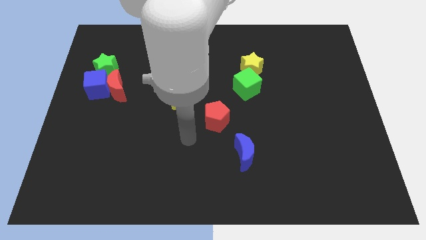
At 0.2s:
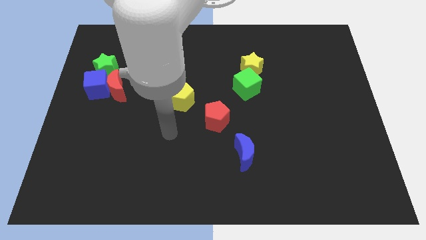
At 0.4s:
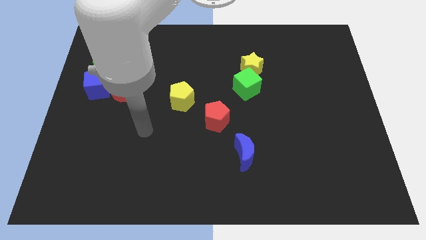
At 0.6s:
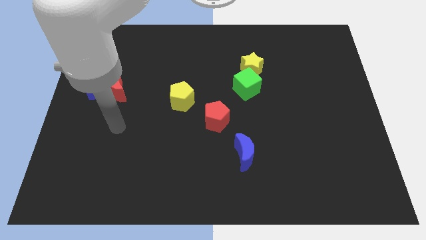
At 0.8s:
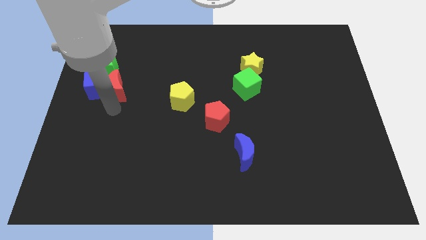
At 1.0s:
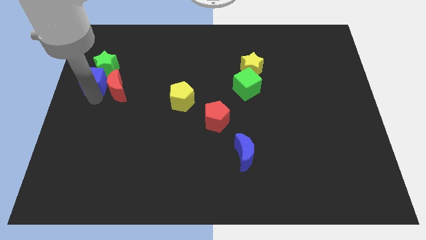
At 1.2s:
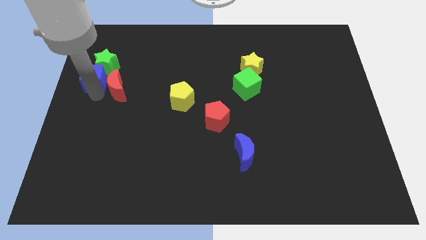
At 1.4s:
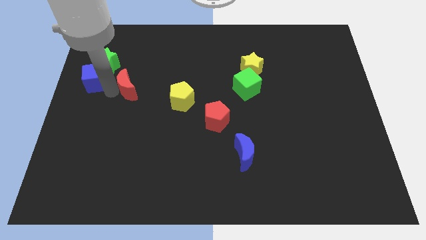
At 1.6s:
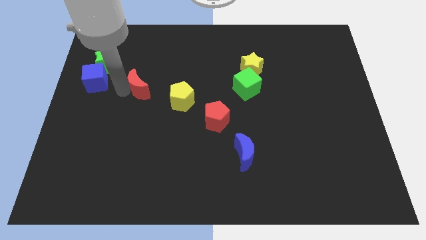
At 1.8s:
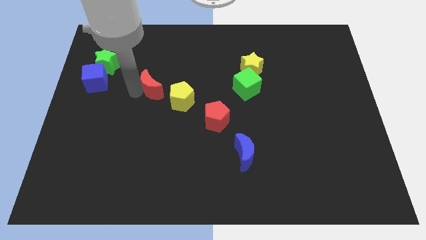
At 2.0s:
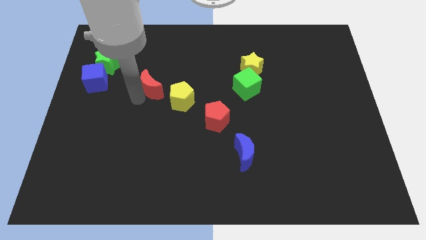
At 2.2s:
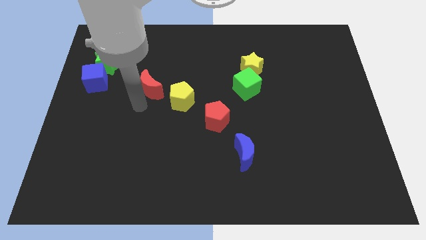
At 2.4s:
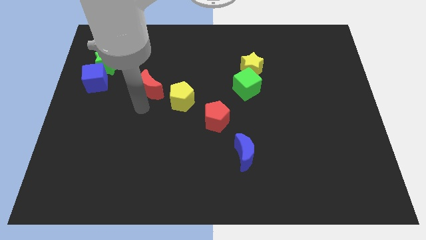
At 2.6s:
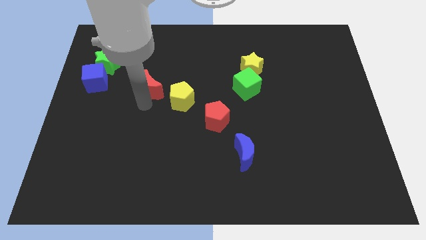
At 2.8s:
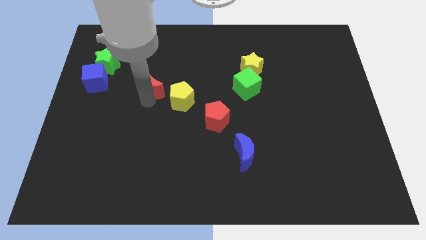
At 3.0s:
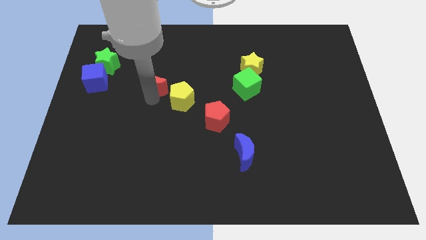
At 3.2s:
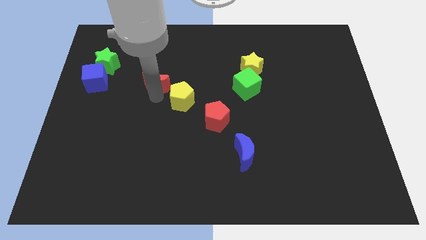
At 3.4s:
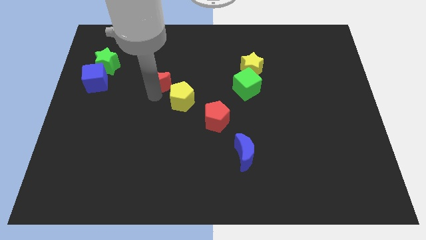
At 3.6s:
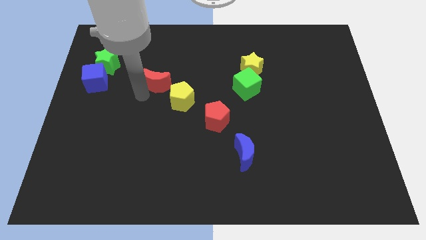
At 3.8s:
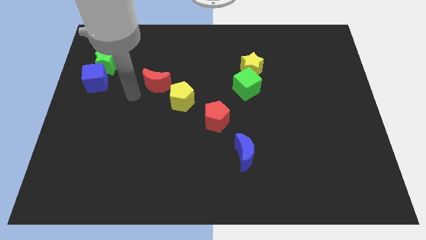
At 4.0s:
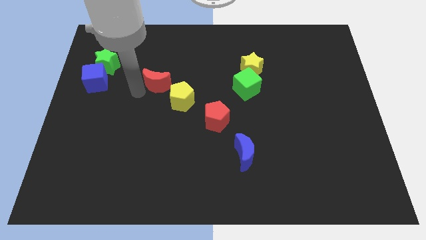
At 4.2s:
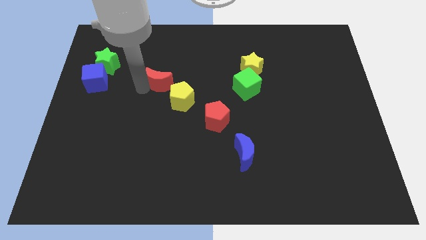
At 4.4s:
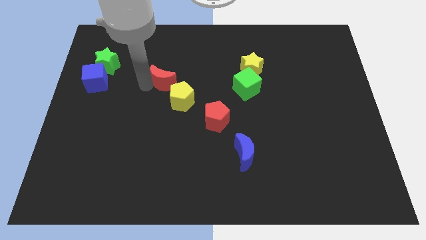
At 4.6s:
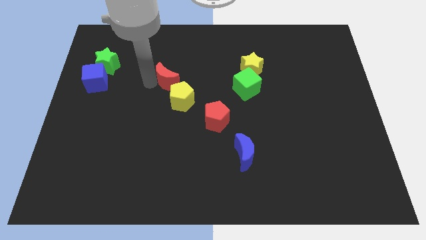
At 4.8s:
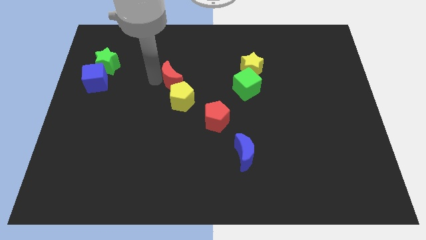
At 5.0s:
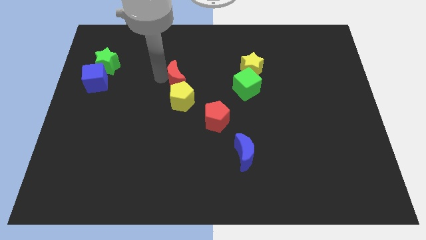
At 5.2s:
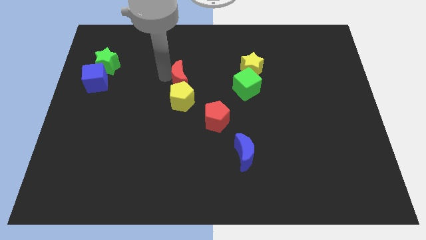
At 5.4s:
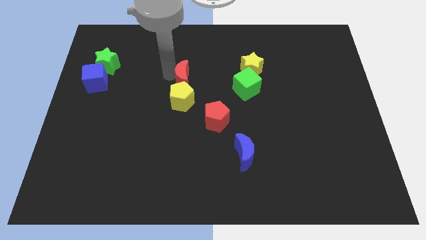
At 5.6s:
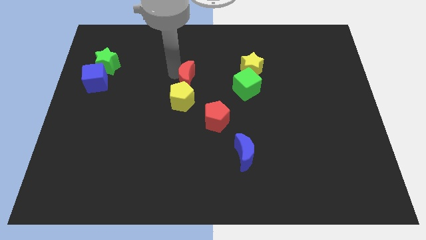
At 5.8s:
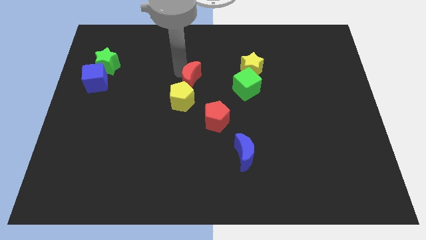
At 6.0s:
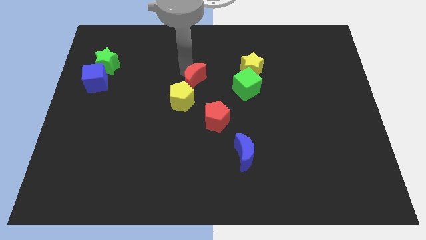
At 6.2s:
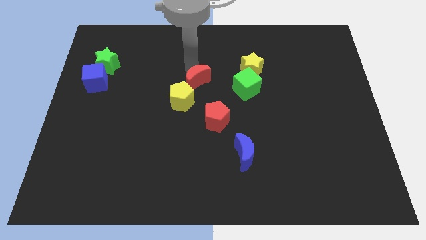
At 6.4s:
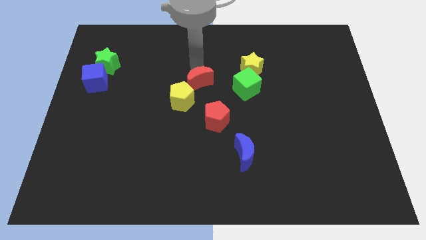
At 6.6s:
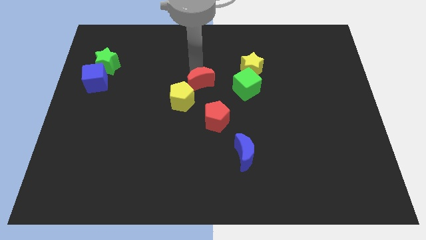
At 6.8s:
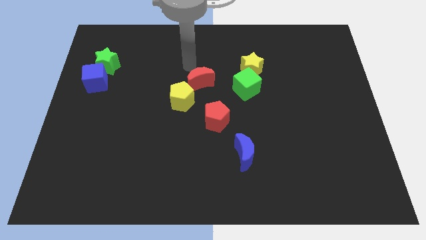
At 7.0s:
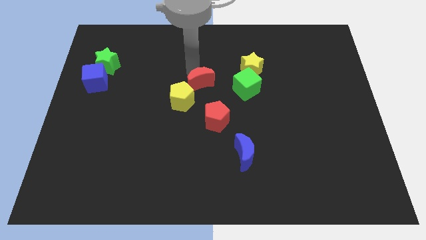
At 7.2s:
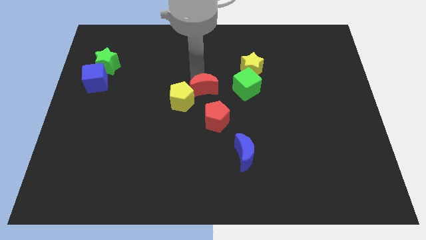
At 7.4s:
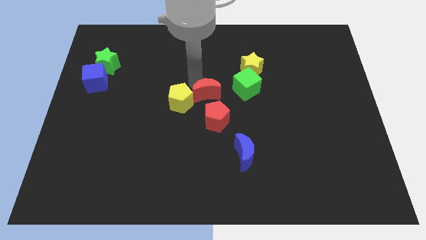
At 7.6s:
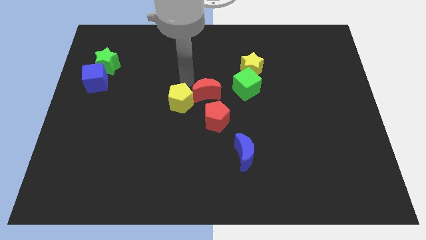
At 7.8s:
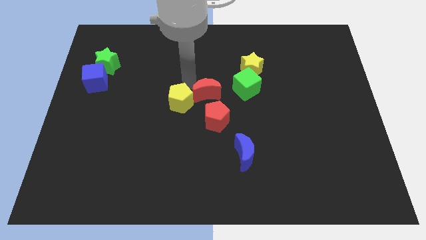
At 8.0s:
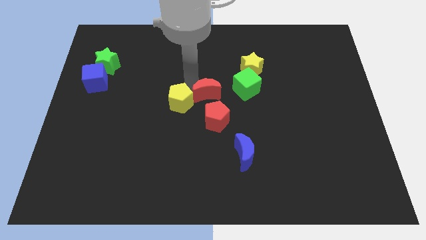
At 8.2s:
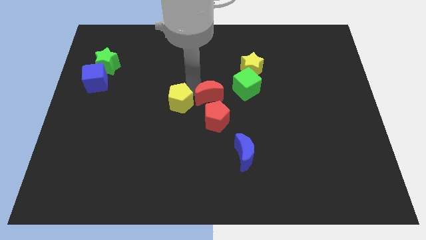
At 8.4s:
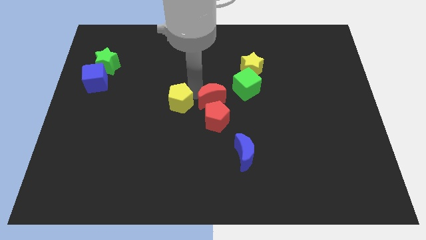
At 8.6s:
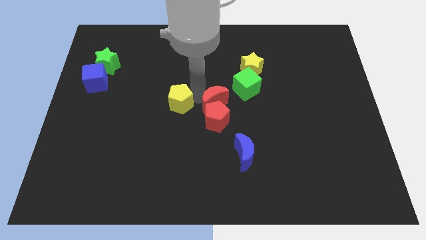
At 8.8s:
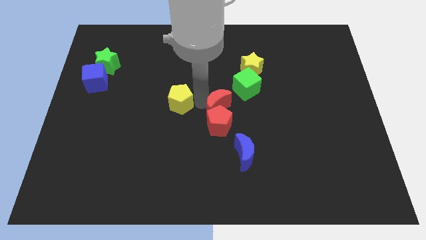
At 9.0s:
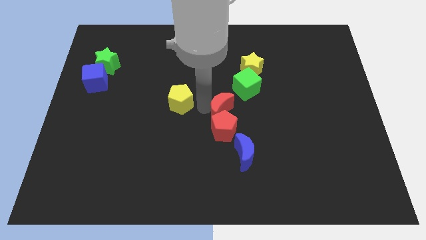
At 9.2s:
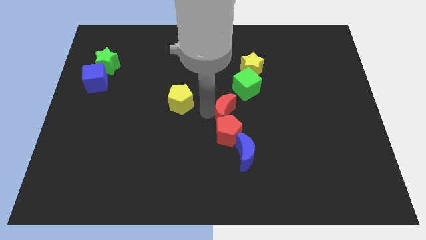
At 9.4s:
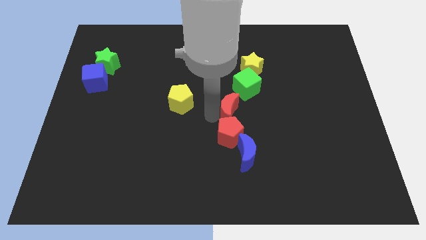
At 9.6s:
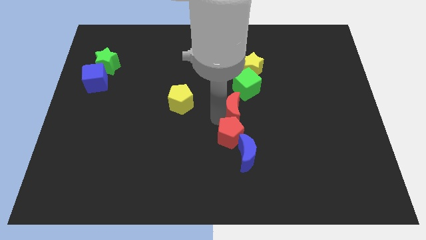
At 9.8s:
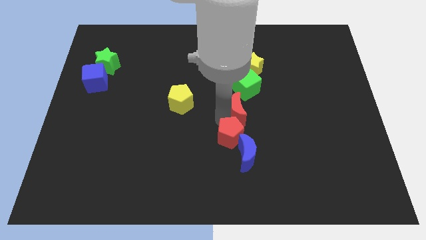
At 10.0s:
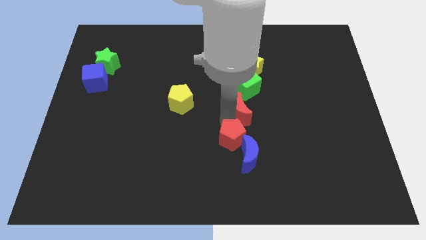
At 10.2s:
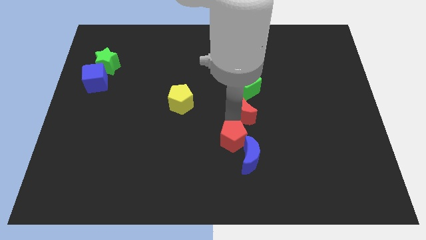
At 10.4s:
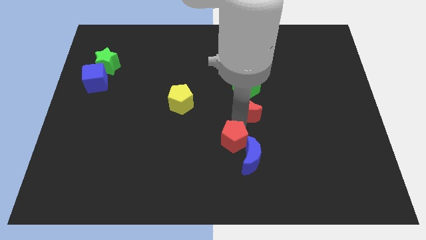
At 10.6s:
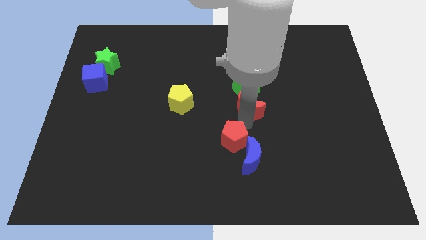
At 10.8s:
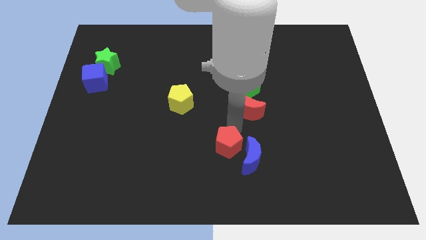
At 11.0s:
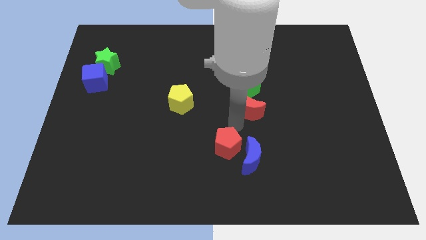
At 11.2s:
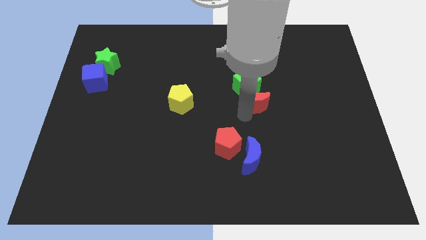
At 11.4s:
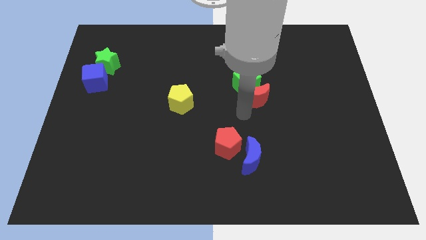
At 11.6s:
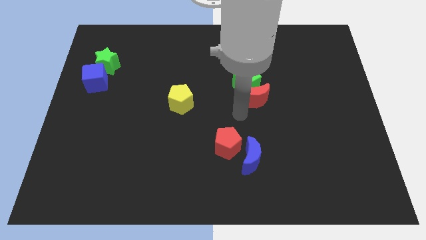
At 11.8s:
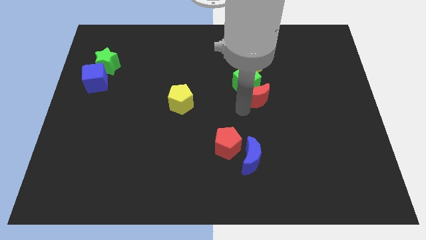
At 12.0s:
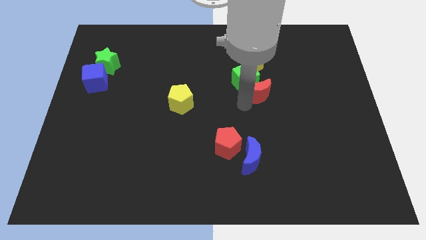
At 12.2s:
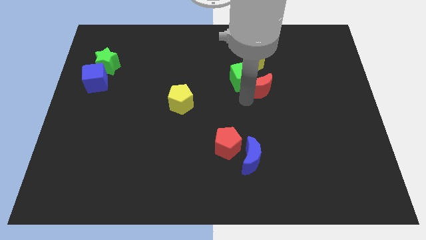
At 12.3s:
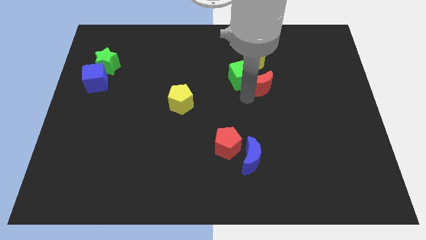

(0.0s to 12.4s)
put the red moon to the bottom right of the yellow star
